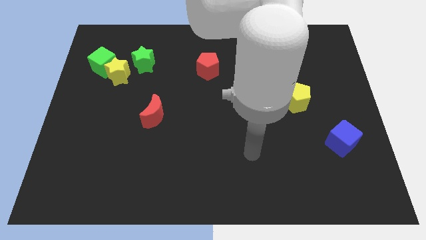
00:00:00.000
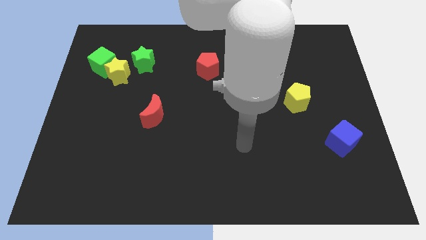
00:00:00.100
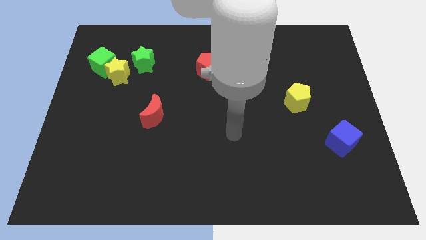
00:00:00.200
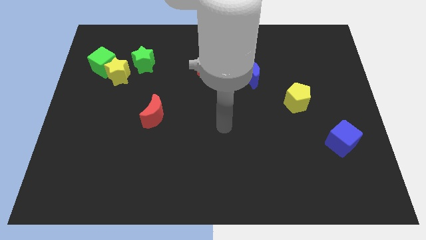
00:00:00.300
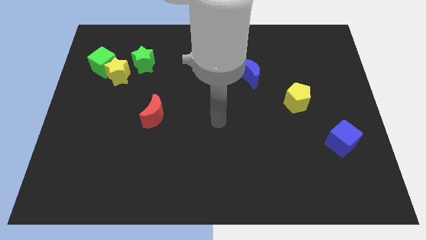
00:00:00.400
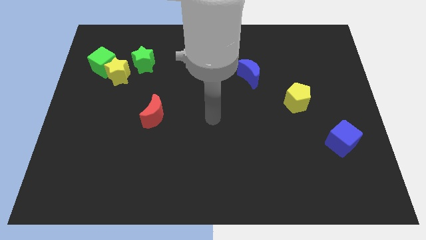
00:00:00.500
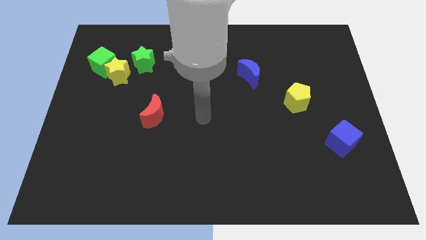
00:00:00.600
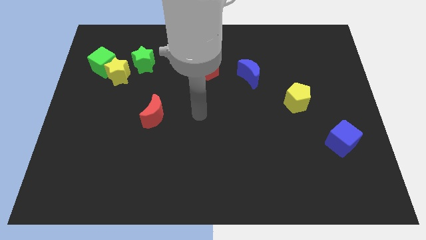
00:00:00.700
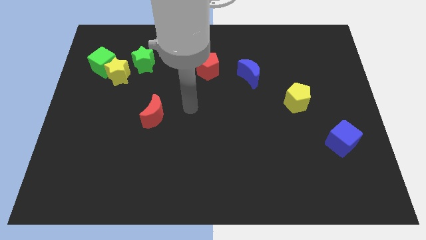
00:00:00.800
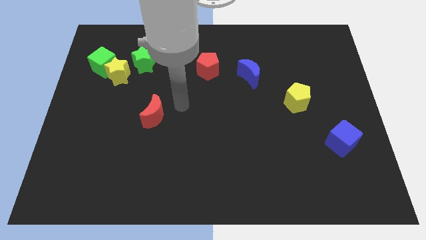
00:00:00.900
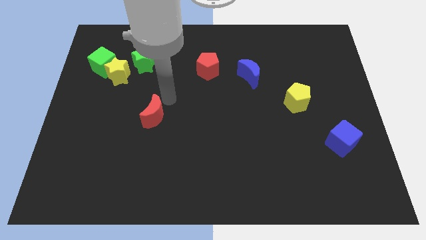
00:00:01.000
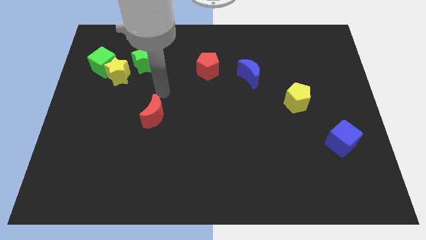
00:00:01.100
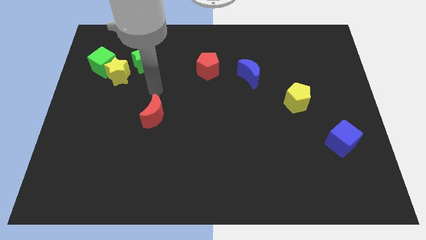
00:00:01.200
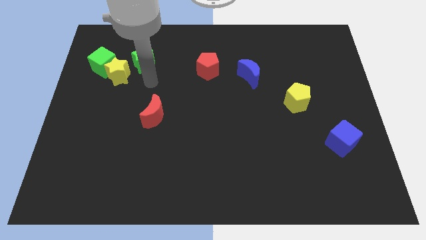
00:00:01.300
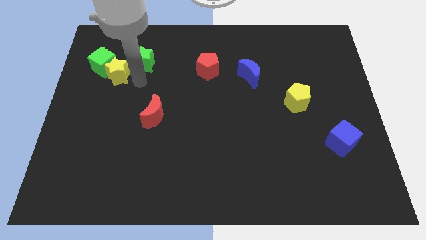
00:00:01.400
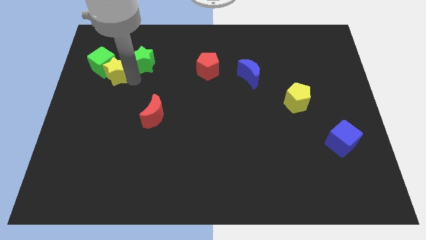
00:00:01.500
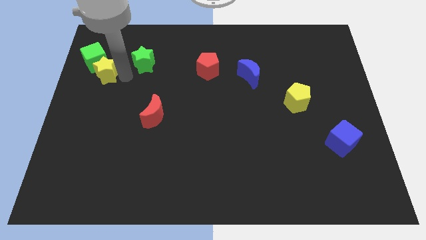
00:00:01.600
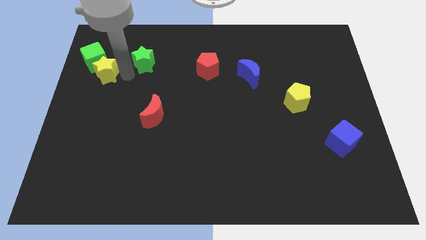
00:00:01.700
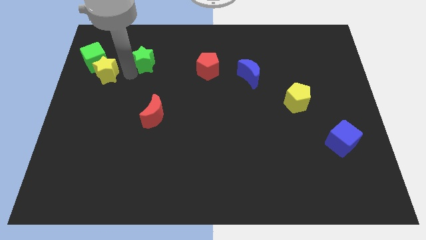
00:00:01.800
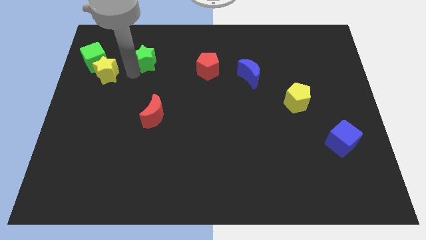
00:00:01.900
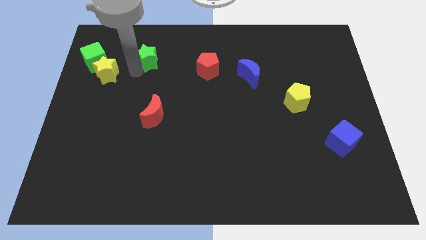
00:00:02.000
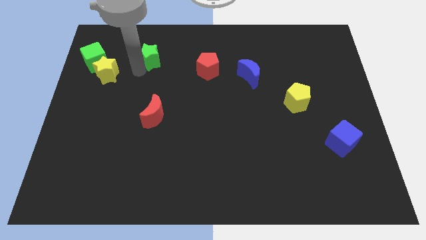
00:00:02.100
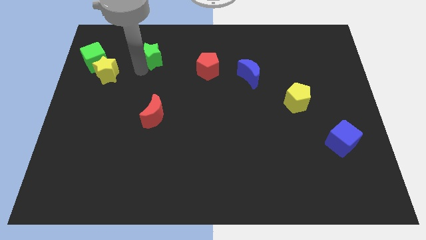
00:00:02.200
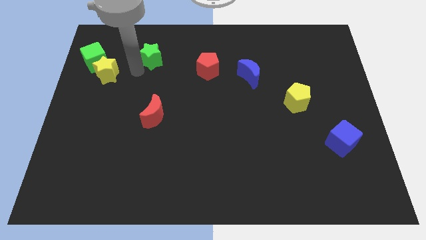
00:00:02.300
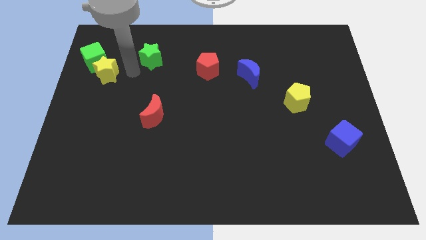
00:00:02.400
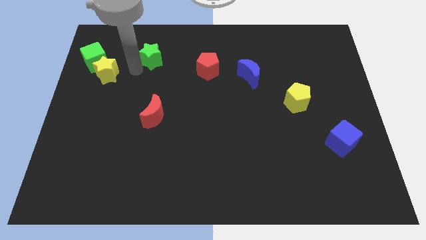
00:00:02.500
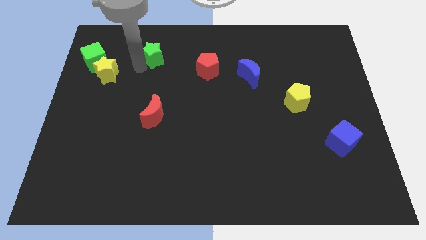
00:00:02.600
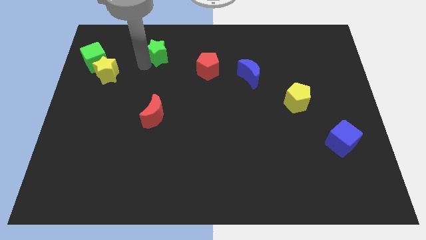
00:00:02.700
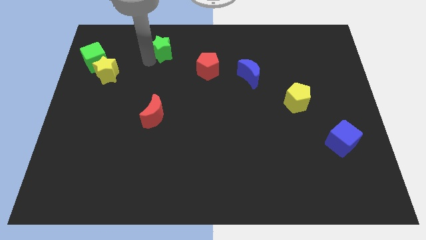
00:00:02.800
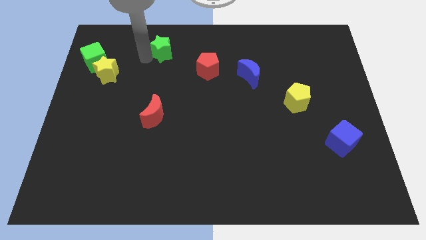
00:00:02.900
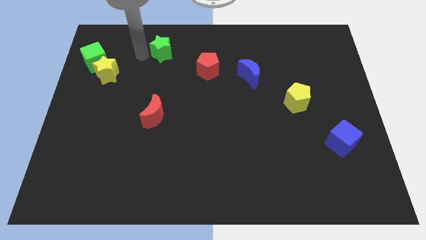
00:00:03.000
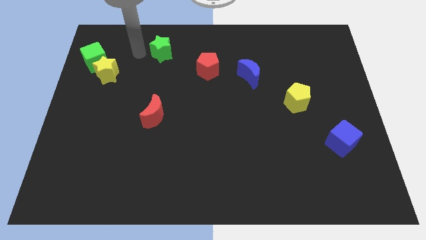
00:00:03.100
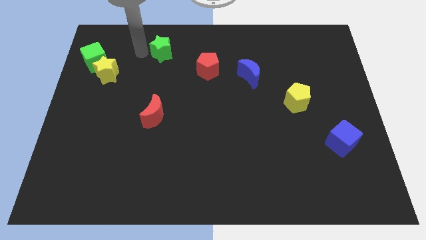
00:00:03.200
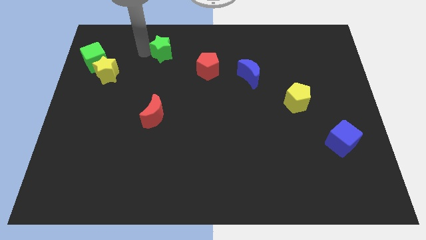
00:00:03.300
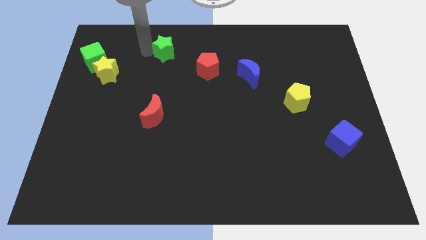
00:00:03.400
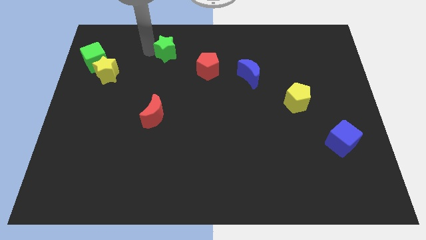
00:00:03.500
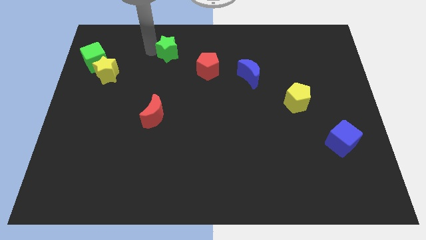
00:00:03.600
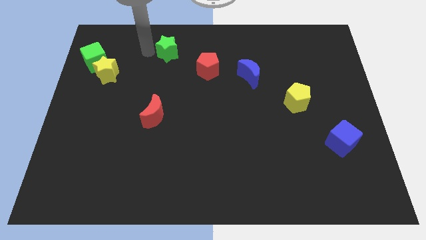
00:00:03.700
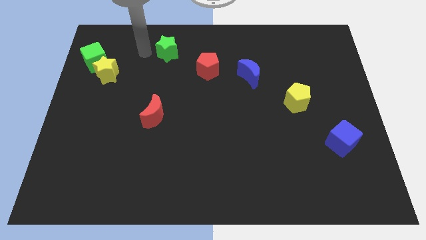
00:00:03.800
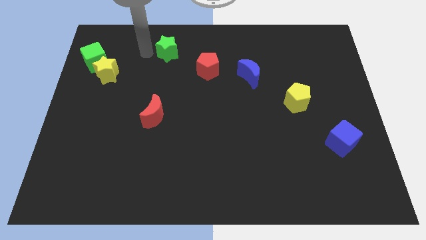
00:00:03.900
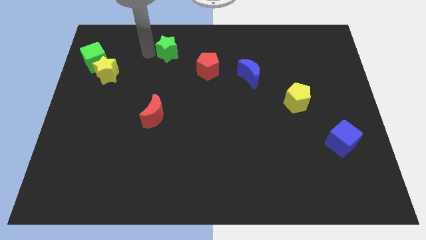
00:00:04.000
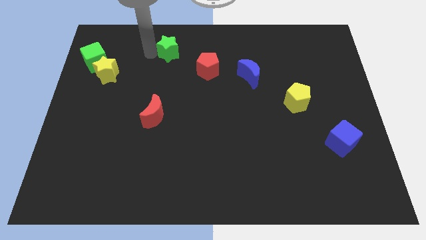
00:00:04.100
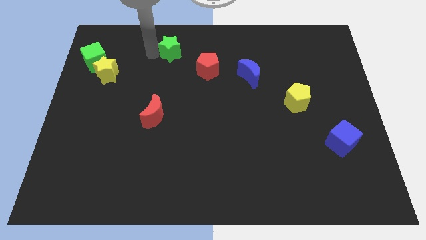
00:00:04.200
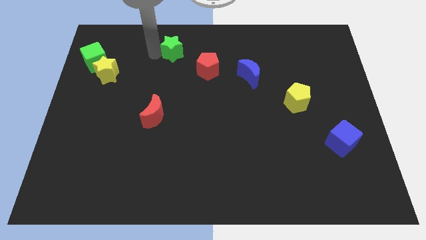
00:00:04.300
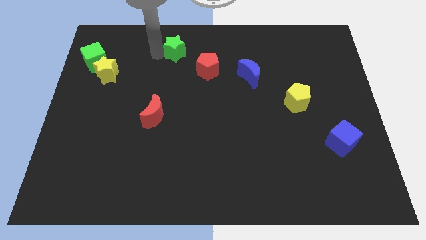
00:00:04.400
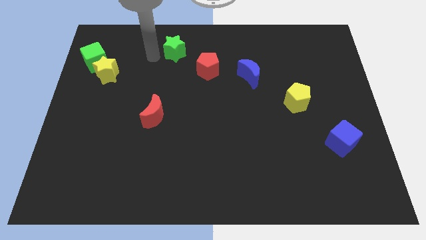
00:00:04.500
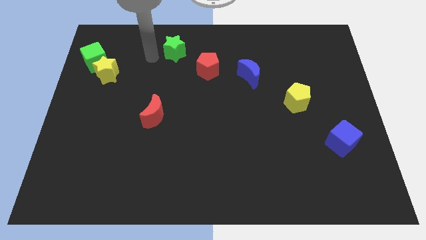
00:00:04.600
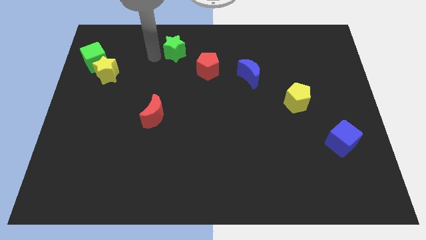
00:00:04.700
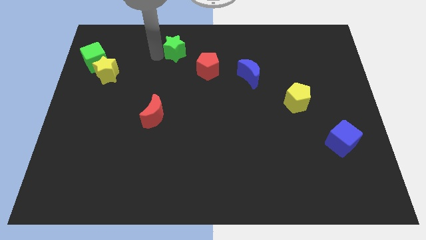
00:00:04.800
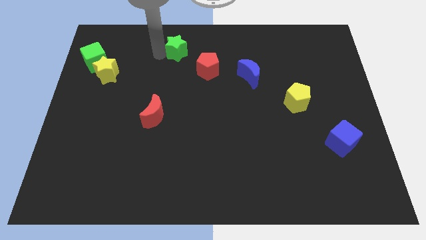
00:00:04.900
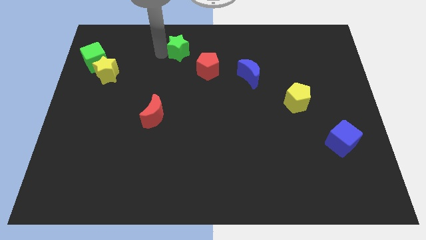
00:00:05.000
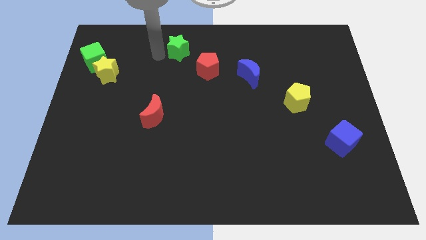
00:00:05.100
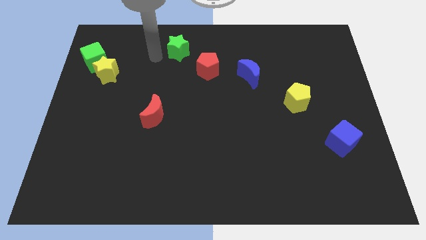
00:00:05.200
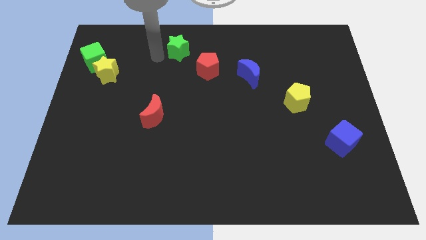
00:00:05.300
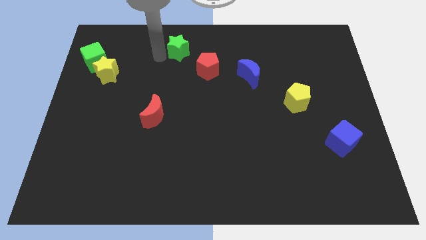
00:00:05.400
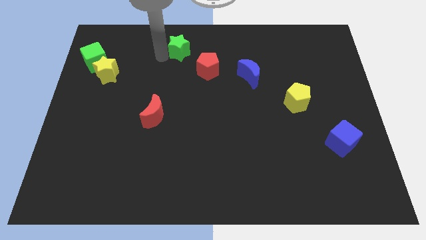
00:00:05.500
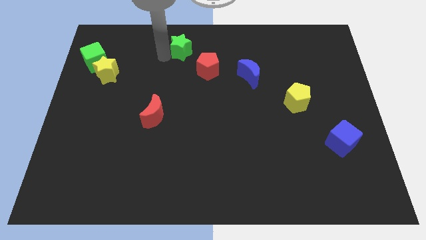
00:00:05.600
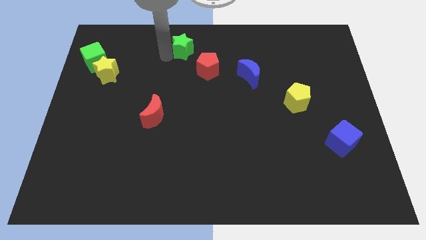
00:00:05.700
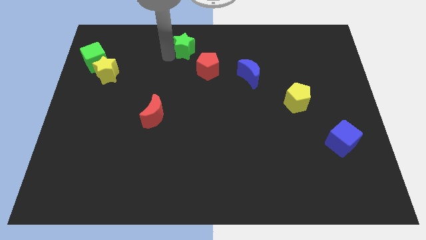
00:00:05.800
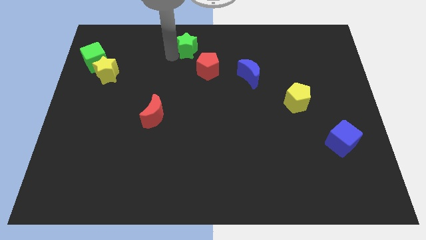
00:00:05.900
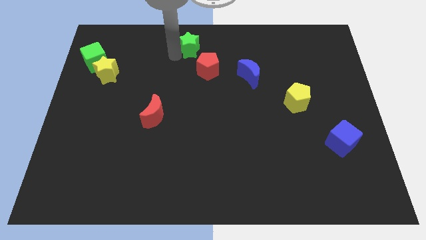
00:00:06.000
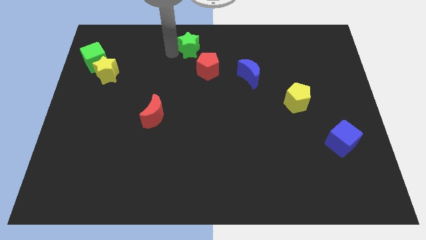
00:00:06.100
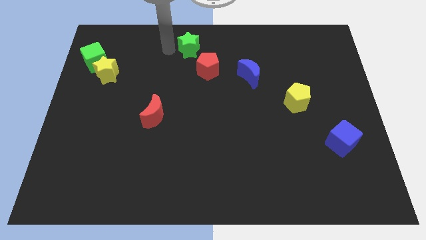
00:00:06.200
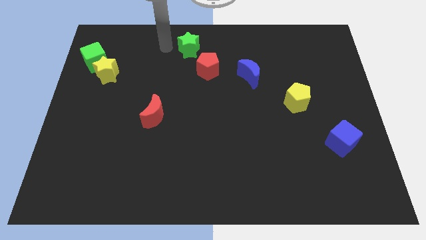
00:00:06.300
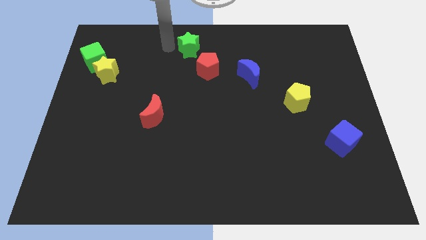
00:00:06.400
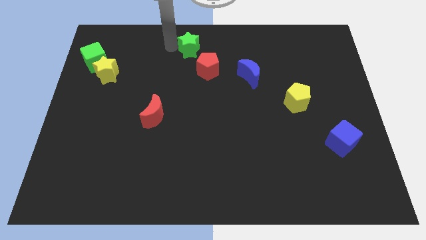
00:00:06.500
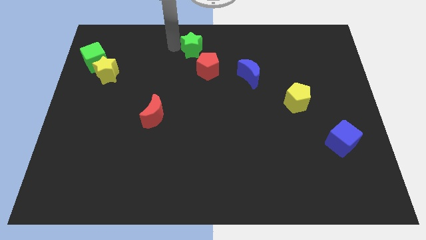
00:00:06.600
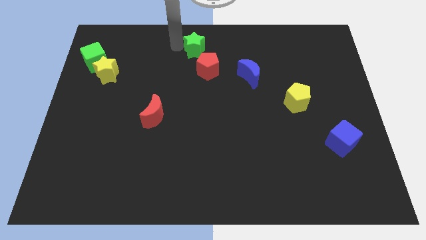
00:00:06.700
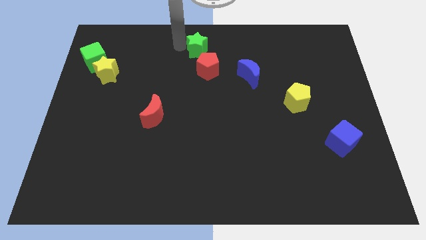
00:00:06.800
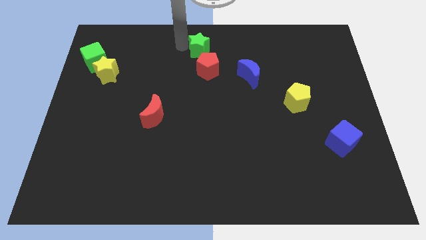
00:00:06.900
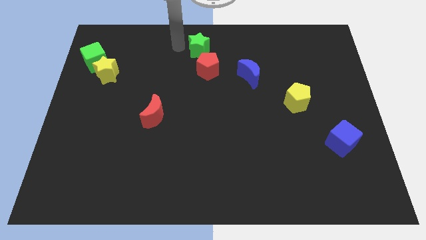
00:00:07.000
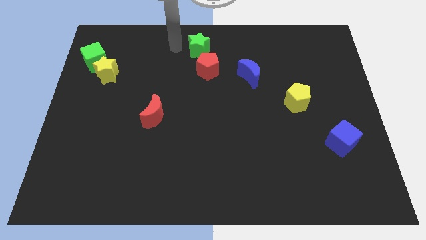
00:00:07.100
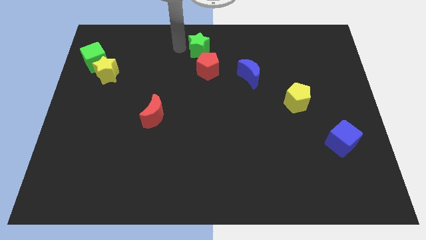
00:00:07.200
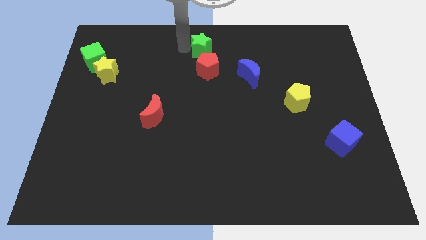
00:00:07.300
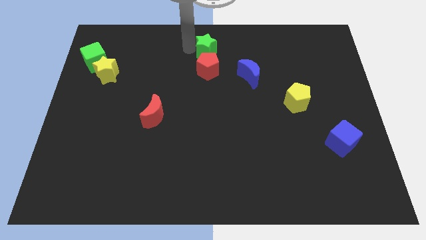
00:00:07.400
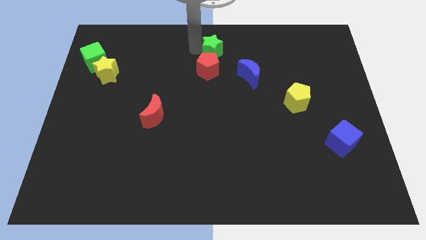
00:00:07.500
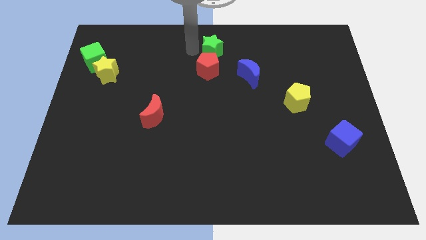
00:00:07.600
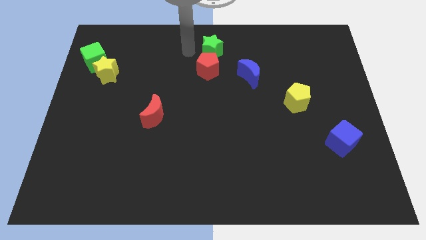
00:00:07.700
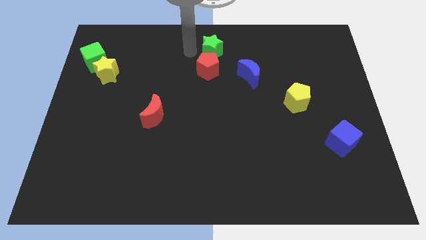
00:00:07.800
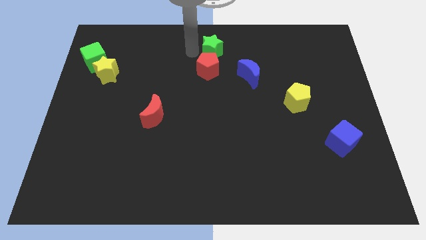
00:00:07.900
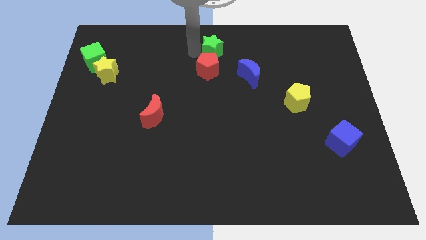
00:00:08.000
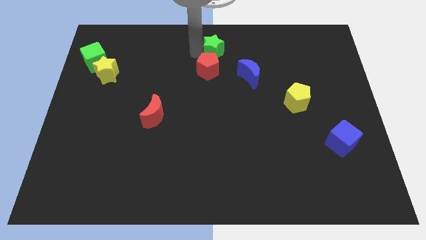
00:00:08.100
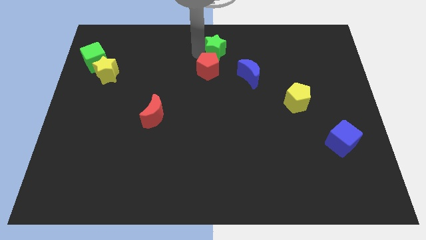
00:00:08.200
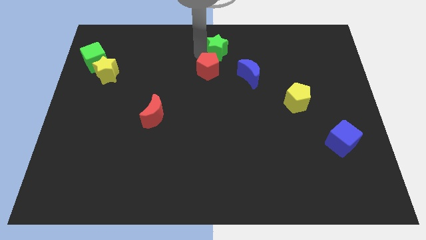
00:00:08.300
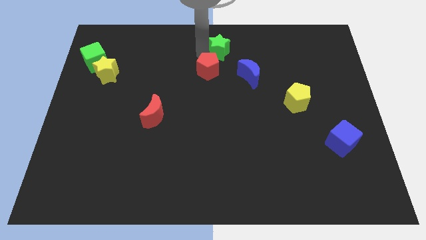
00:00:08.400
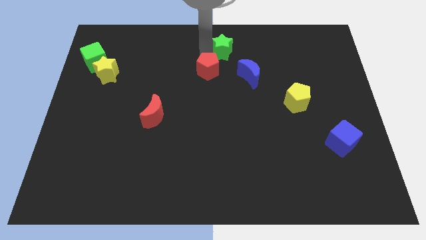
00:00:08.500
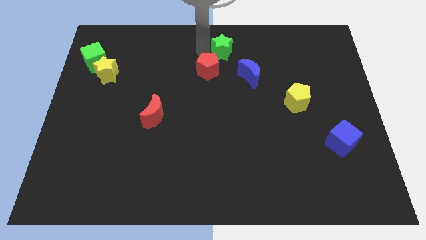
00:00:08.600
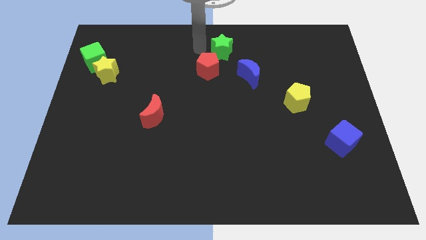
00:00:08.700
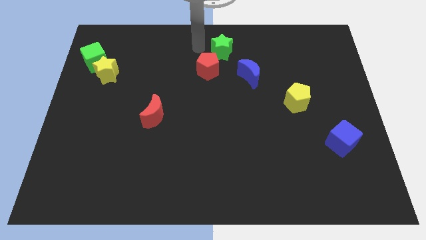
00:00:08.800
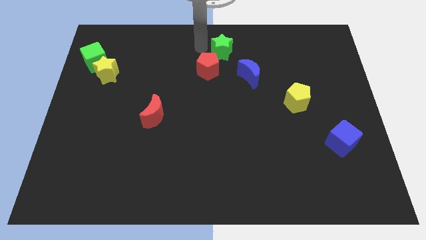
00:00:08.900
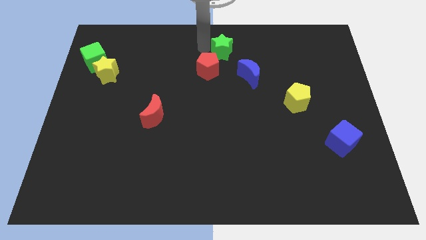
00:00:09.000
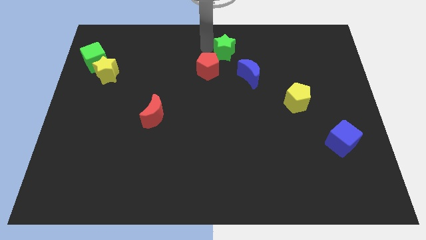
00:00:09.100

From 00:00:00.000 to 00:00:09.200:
move the green star to the right
